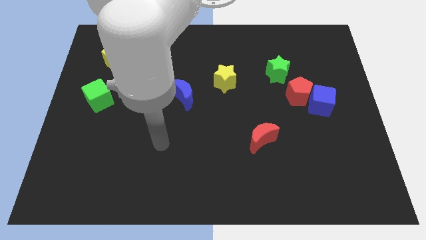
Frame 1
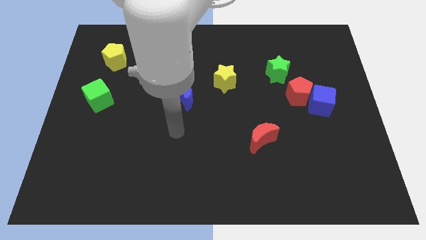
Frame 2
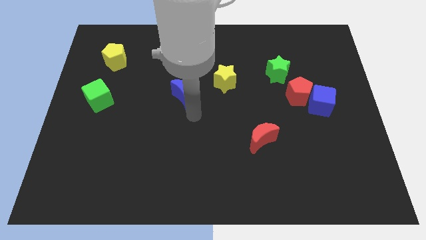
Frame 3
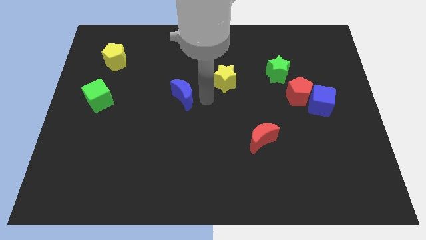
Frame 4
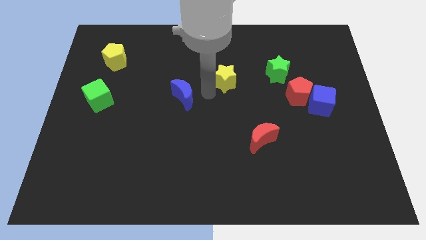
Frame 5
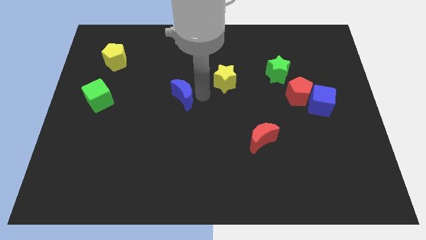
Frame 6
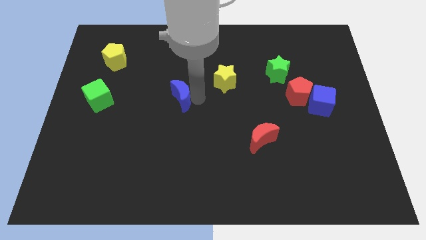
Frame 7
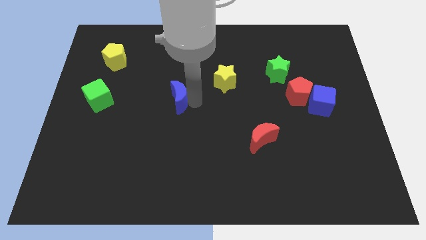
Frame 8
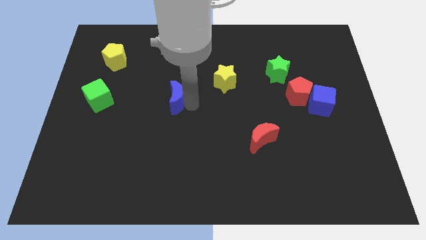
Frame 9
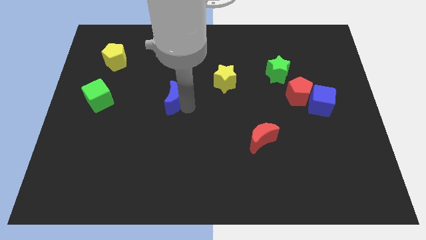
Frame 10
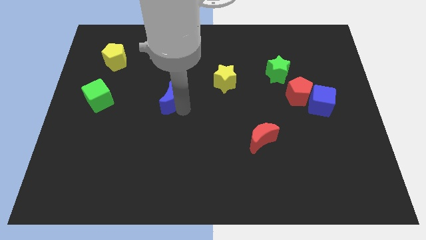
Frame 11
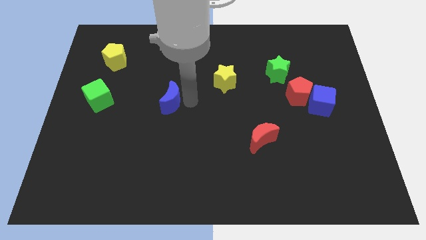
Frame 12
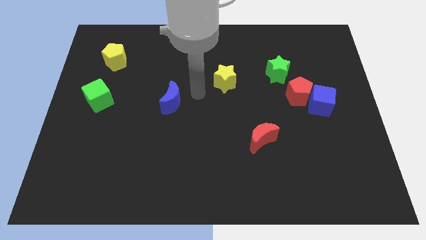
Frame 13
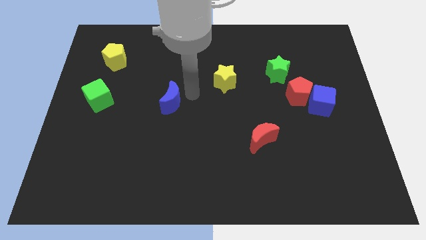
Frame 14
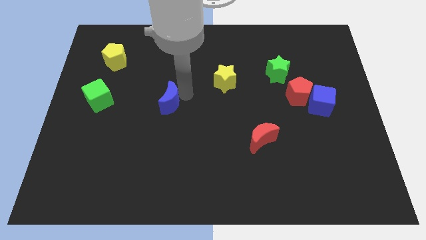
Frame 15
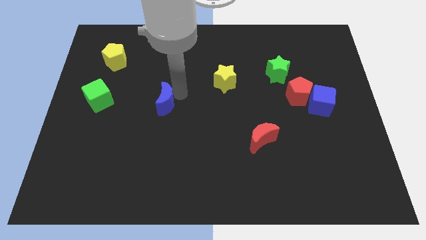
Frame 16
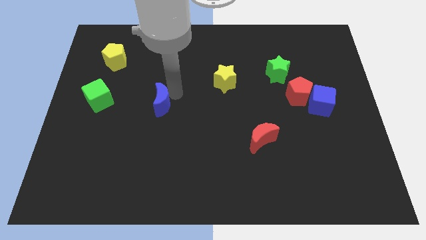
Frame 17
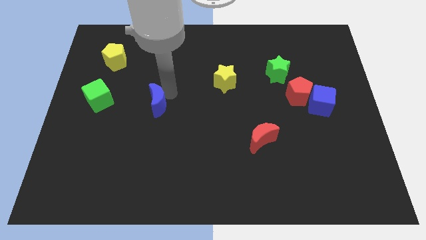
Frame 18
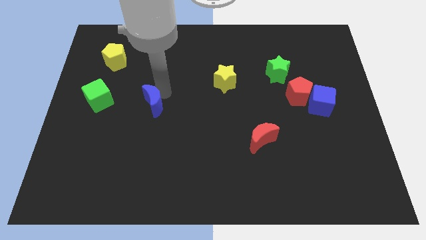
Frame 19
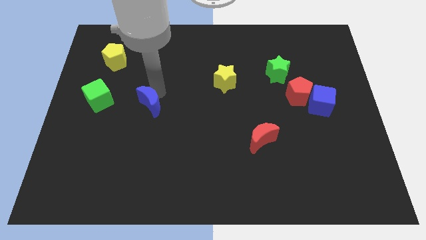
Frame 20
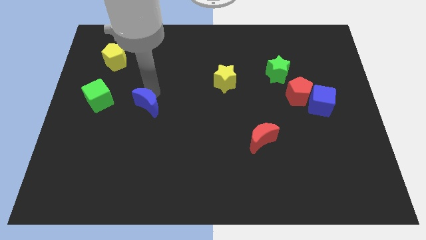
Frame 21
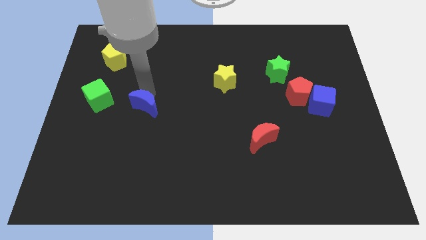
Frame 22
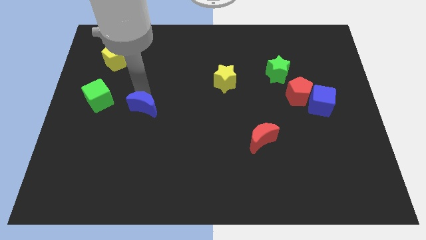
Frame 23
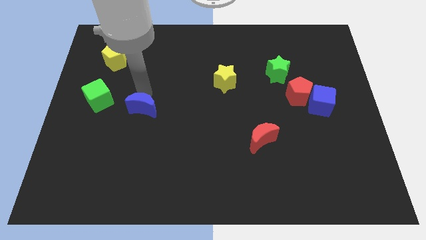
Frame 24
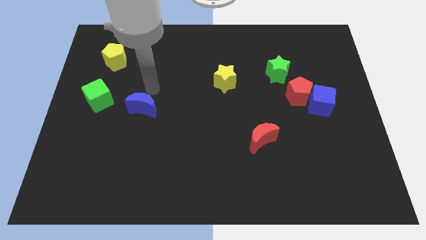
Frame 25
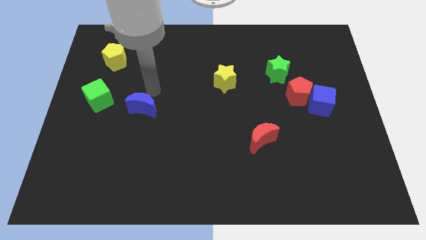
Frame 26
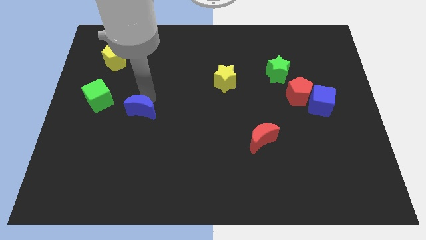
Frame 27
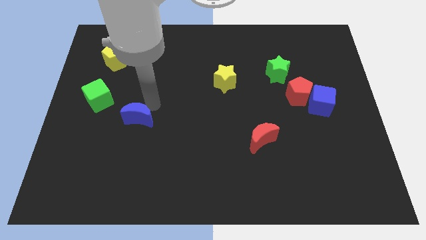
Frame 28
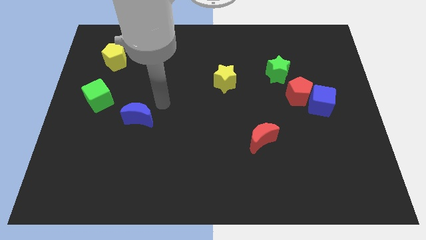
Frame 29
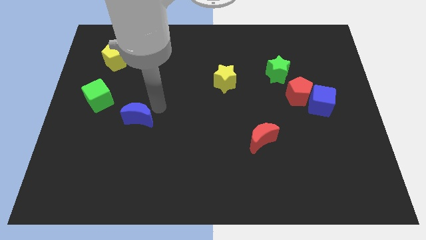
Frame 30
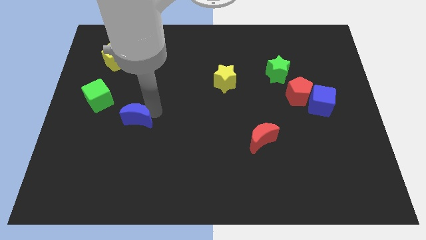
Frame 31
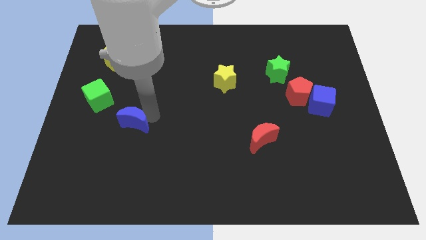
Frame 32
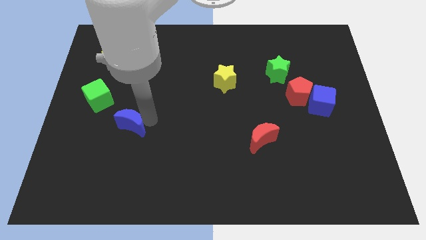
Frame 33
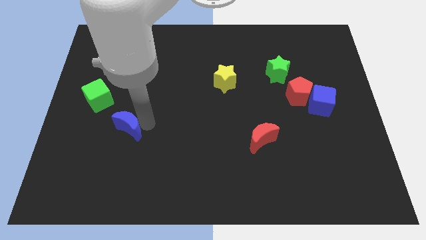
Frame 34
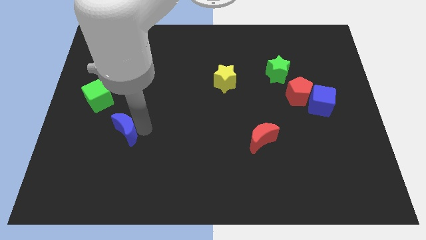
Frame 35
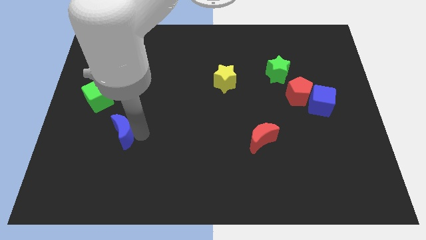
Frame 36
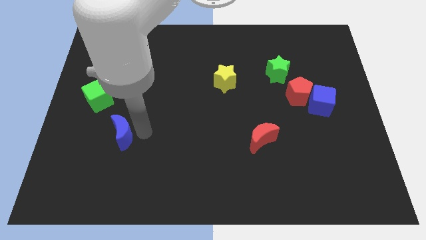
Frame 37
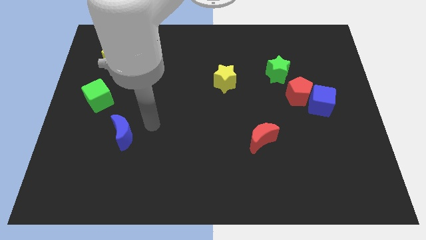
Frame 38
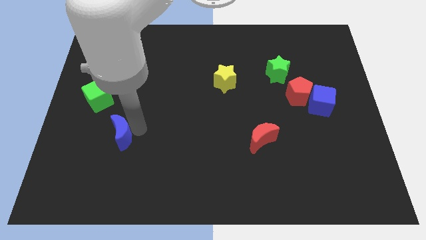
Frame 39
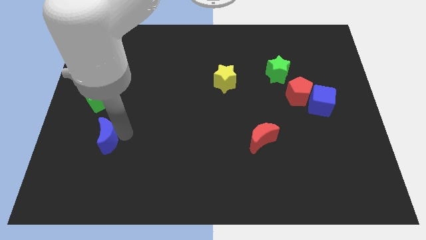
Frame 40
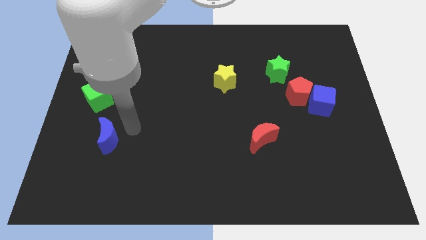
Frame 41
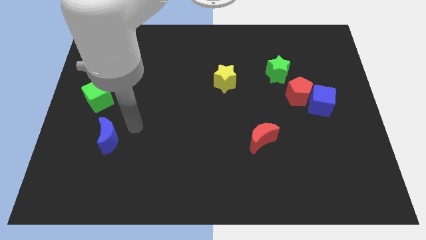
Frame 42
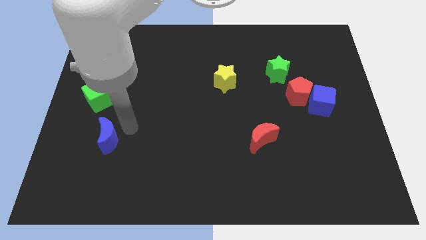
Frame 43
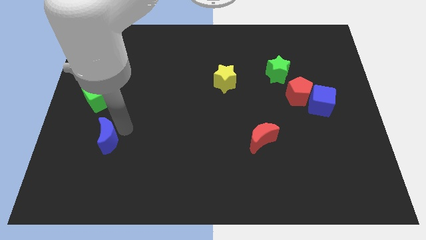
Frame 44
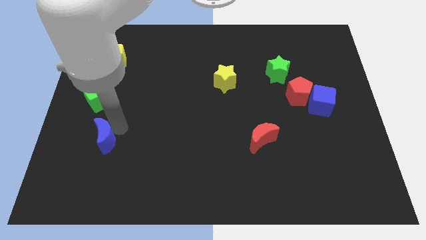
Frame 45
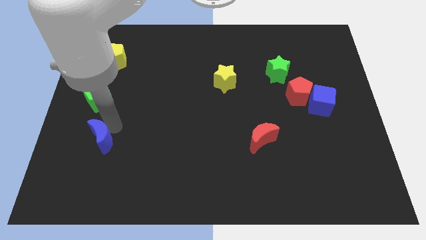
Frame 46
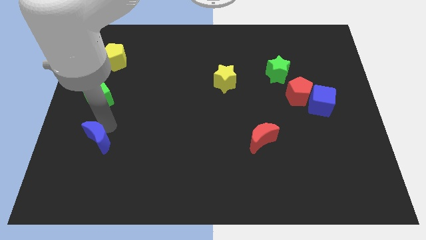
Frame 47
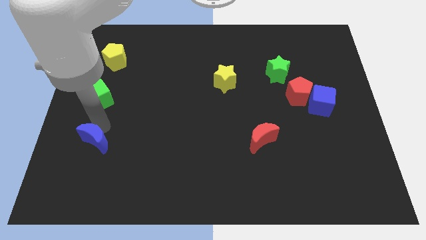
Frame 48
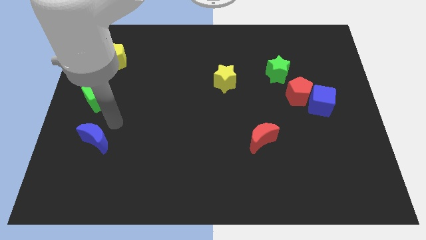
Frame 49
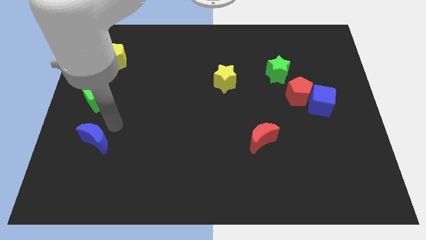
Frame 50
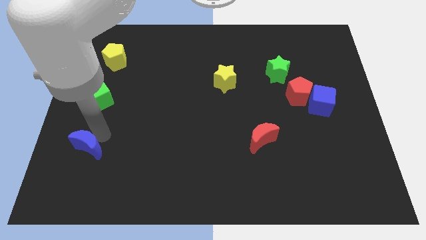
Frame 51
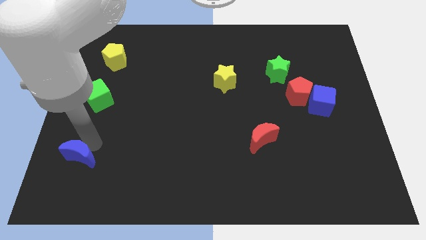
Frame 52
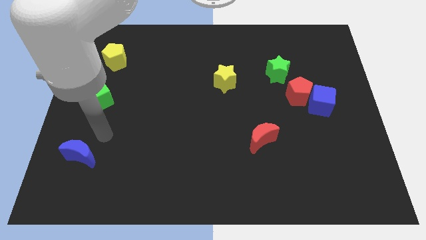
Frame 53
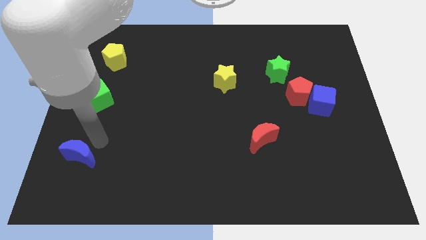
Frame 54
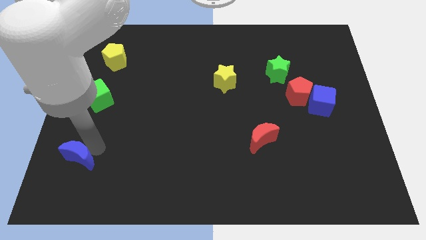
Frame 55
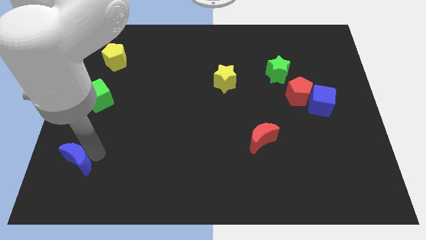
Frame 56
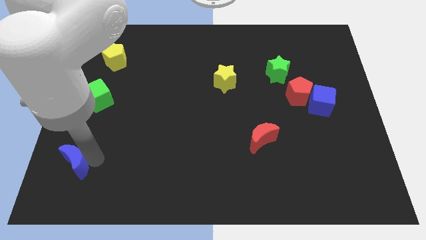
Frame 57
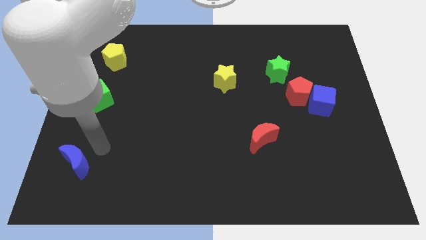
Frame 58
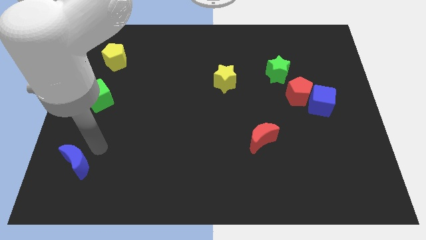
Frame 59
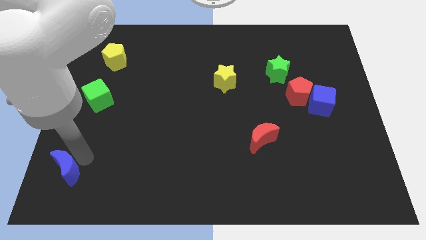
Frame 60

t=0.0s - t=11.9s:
slide the blue moon to the lower left corner

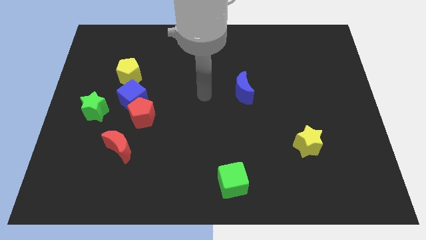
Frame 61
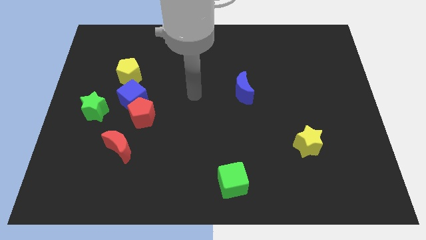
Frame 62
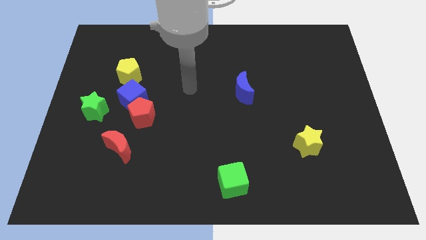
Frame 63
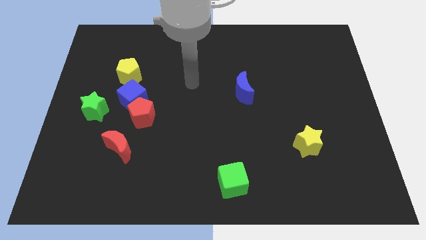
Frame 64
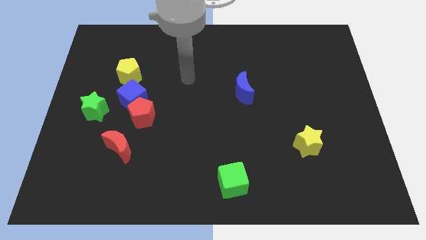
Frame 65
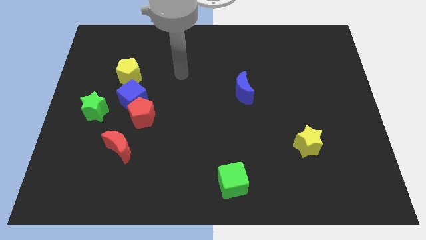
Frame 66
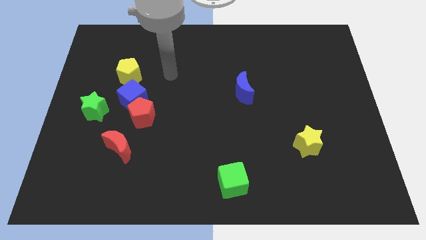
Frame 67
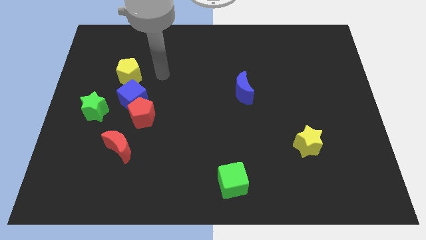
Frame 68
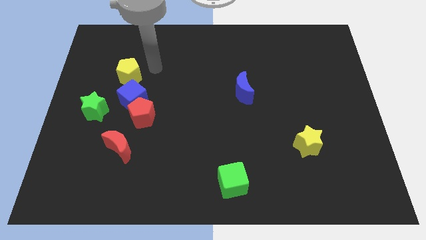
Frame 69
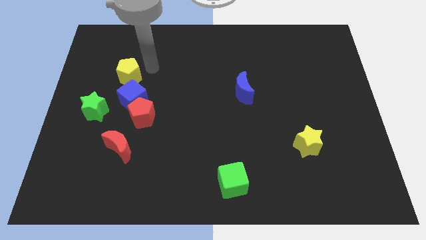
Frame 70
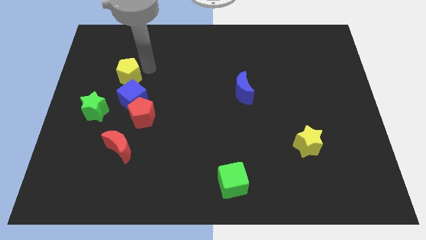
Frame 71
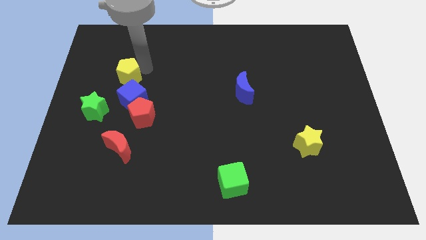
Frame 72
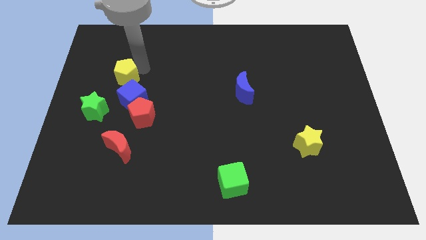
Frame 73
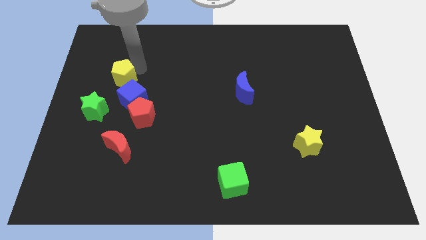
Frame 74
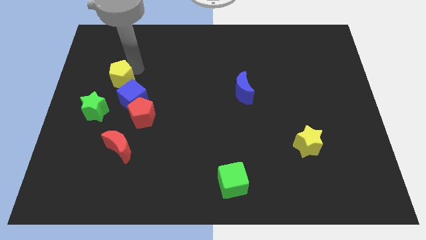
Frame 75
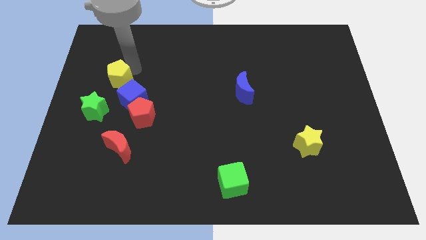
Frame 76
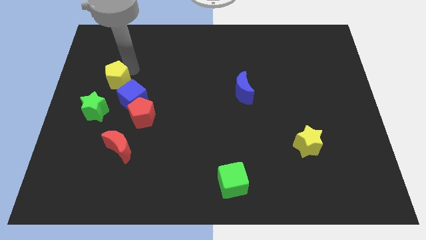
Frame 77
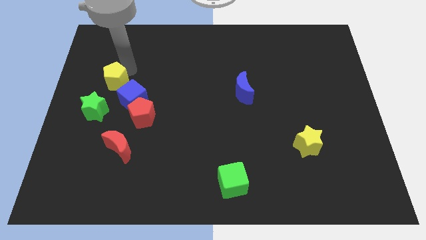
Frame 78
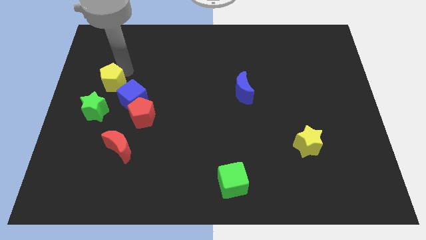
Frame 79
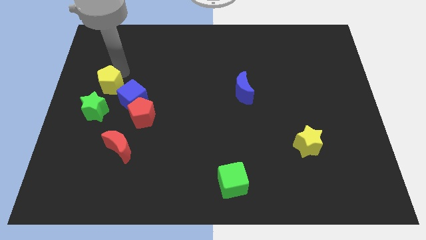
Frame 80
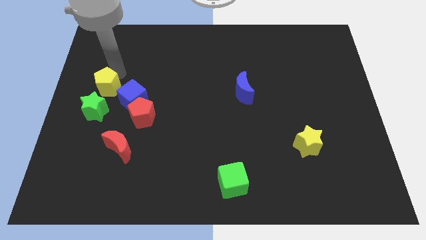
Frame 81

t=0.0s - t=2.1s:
put the yellow pentagon to the center left
